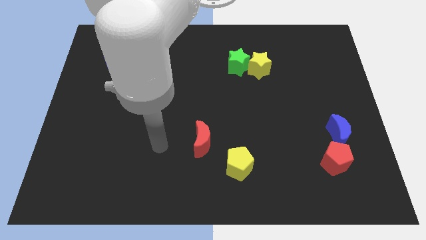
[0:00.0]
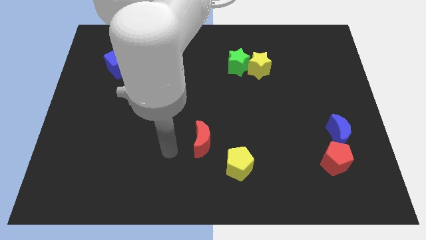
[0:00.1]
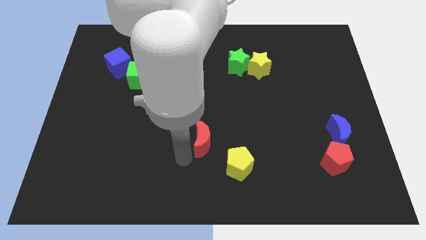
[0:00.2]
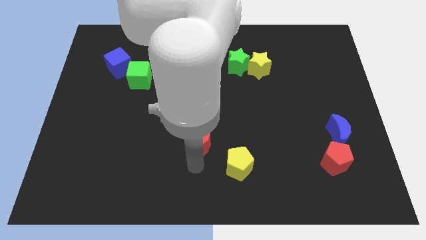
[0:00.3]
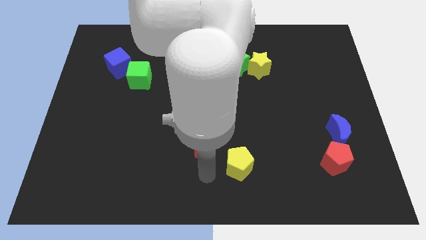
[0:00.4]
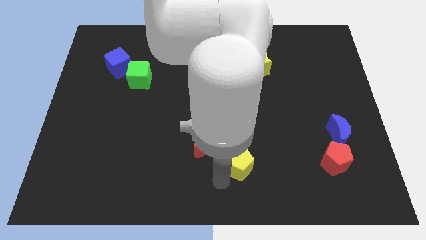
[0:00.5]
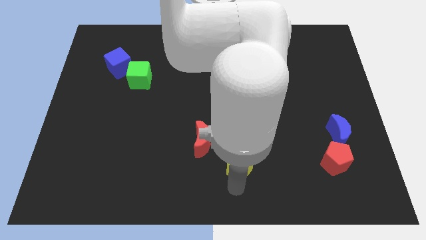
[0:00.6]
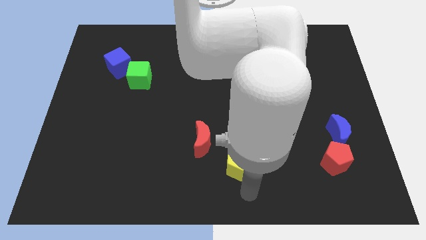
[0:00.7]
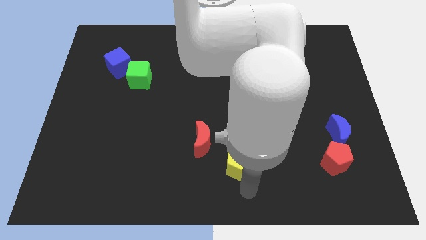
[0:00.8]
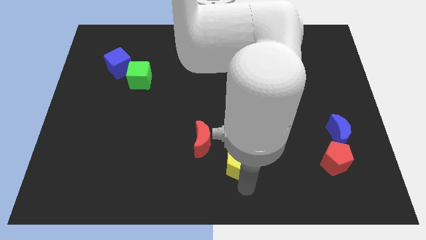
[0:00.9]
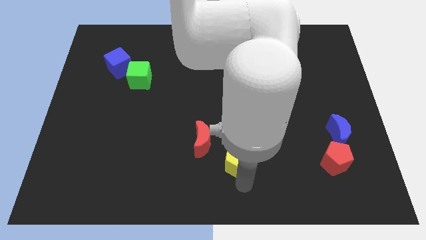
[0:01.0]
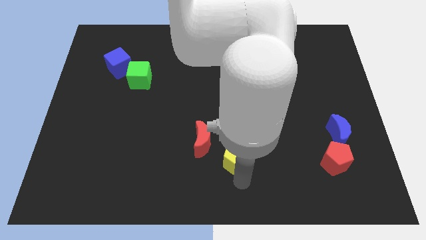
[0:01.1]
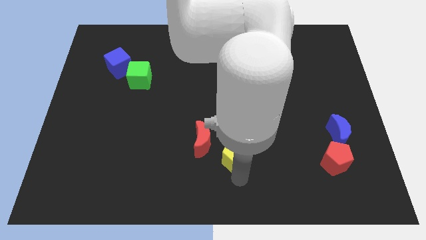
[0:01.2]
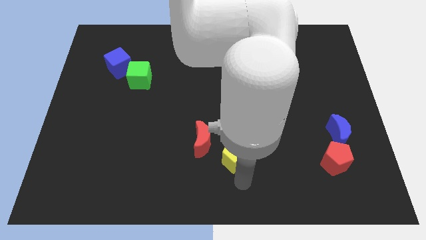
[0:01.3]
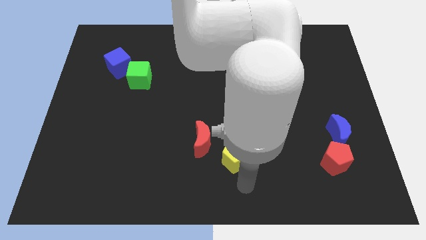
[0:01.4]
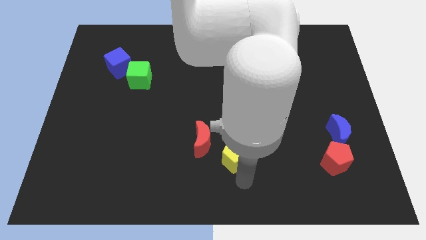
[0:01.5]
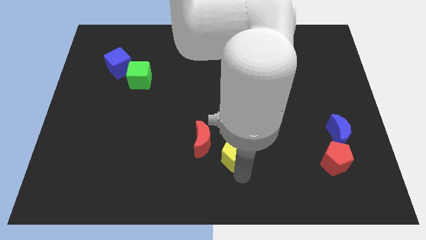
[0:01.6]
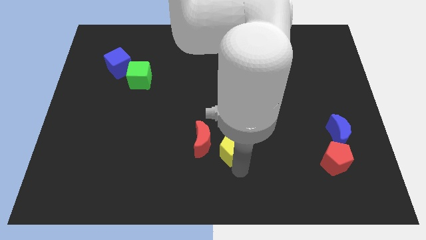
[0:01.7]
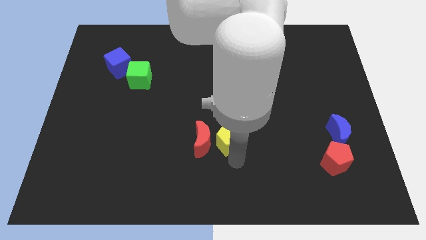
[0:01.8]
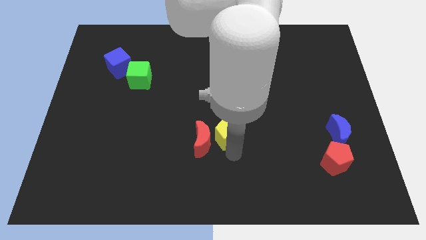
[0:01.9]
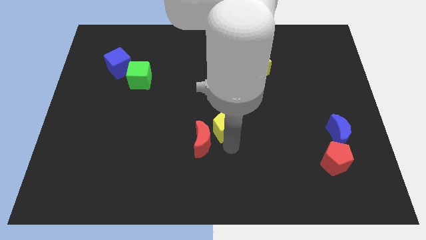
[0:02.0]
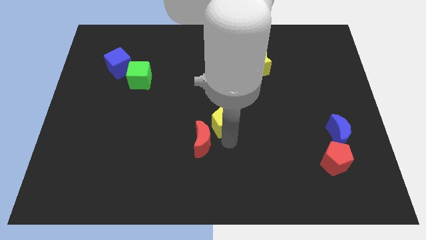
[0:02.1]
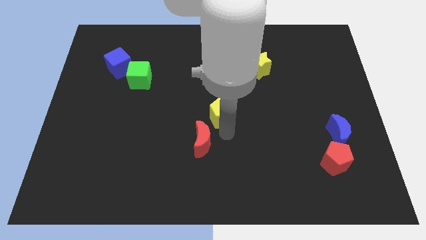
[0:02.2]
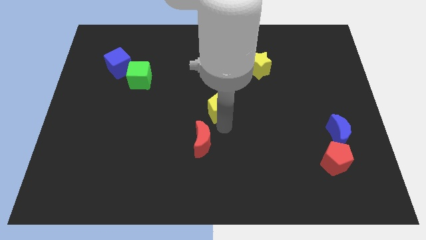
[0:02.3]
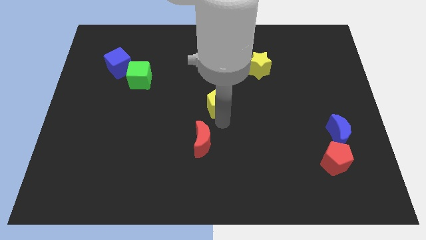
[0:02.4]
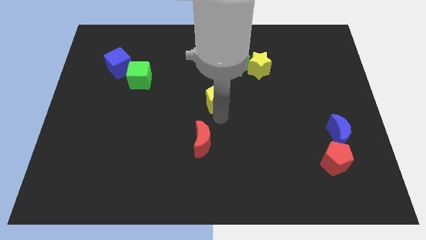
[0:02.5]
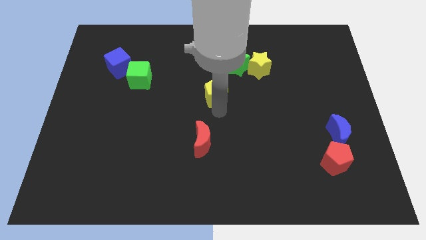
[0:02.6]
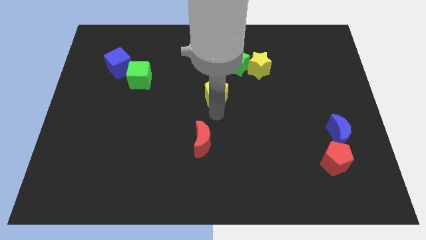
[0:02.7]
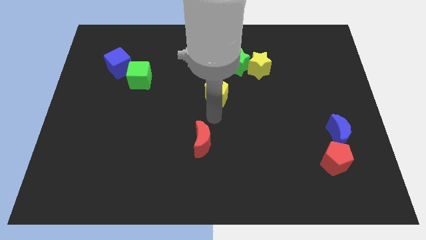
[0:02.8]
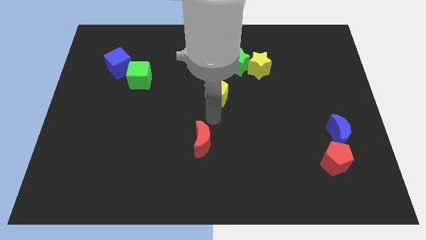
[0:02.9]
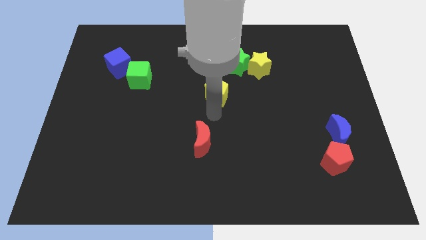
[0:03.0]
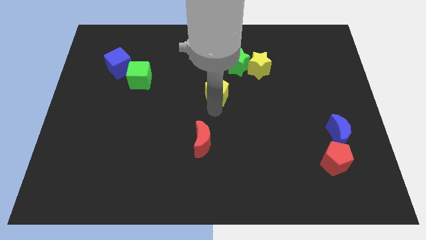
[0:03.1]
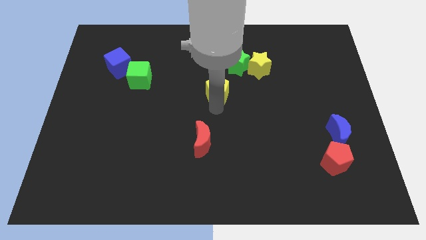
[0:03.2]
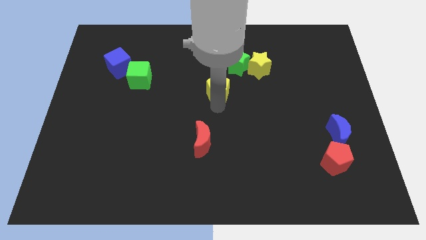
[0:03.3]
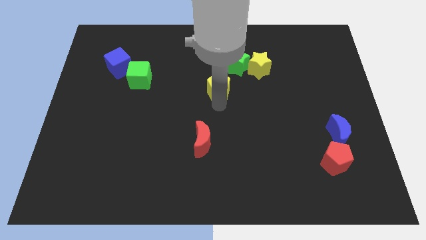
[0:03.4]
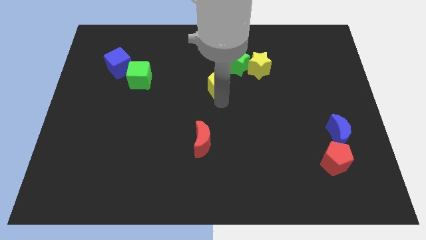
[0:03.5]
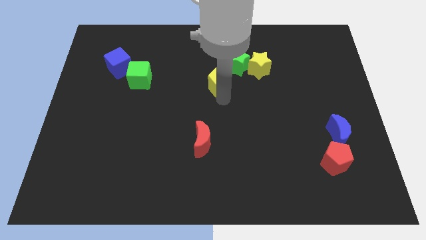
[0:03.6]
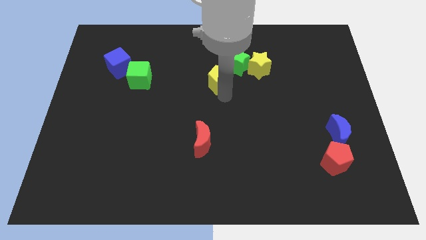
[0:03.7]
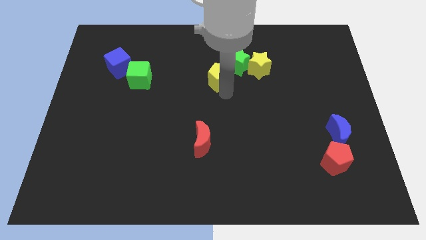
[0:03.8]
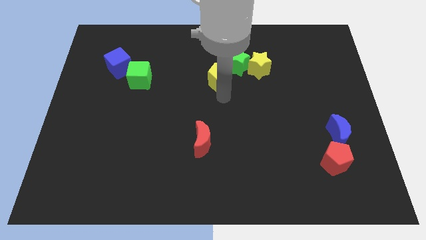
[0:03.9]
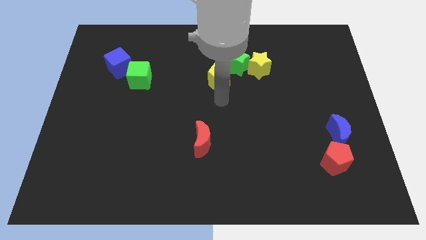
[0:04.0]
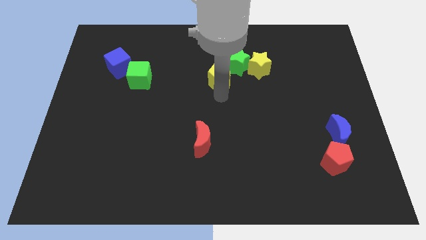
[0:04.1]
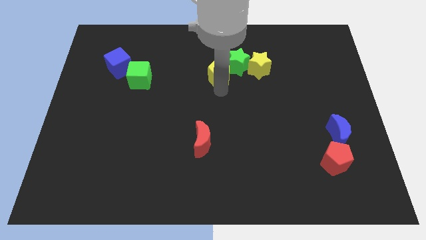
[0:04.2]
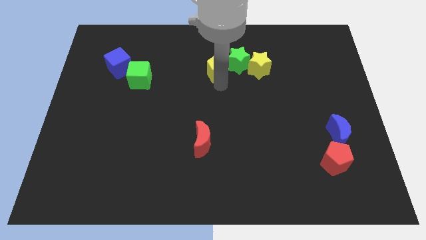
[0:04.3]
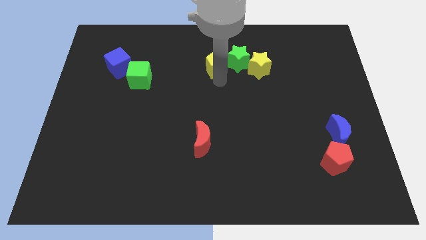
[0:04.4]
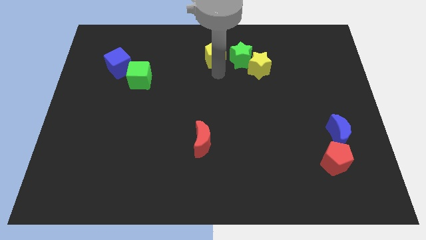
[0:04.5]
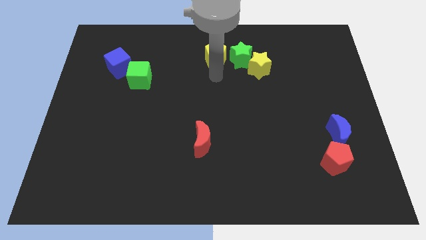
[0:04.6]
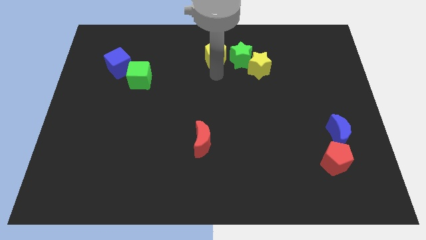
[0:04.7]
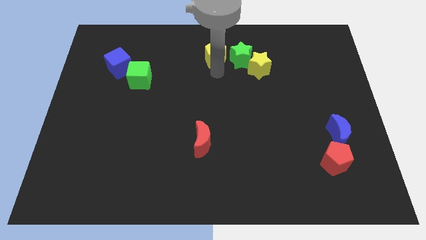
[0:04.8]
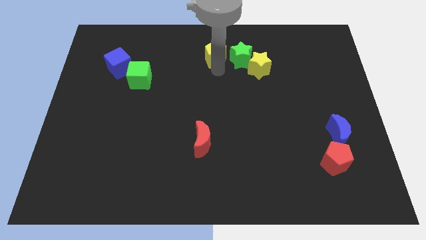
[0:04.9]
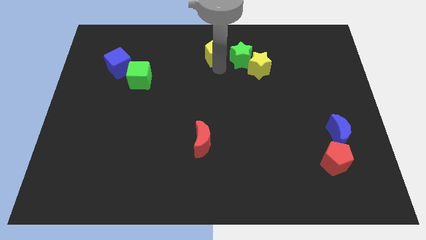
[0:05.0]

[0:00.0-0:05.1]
move the yellow pentagon to the towards your base

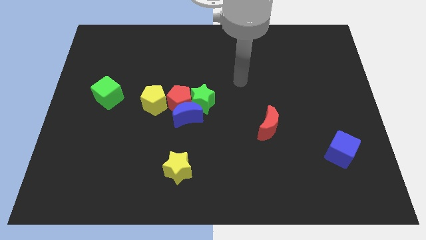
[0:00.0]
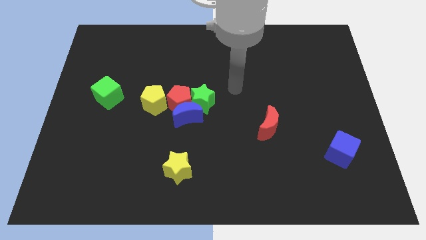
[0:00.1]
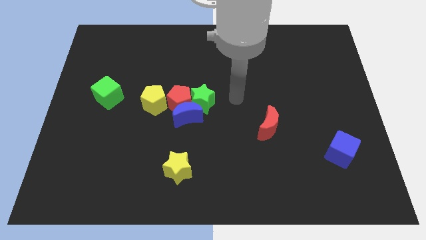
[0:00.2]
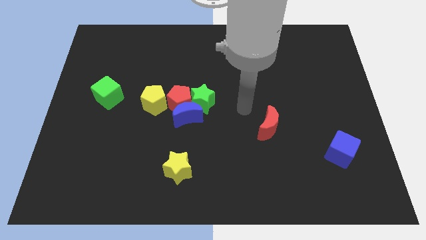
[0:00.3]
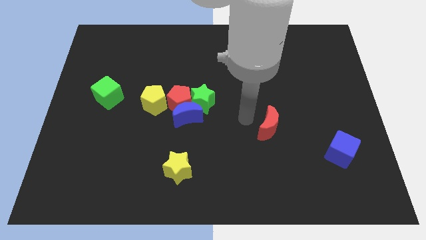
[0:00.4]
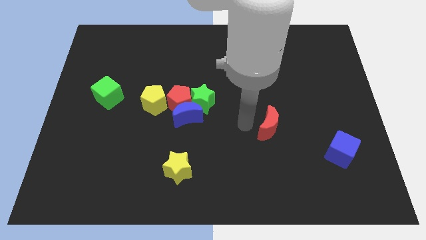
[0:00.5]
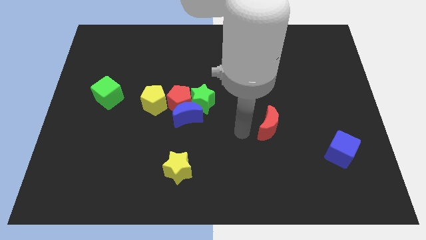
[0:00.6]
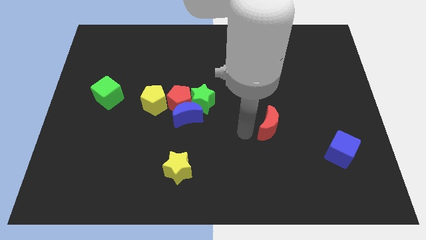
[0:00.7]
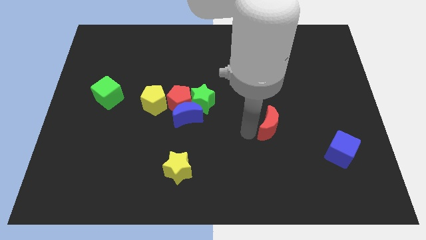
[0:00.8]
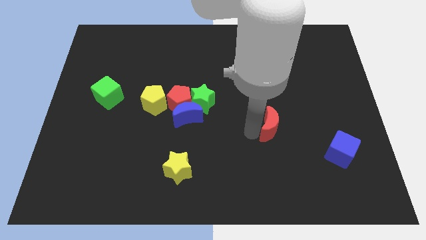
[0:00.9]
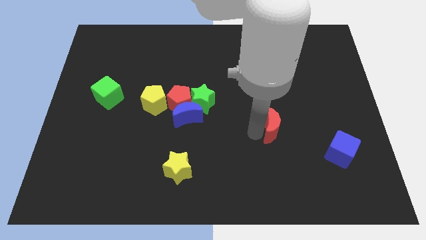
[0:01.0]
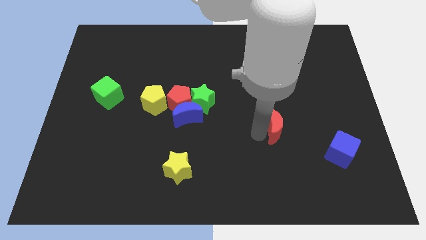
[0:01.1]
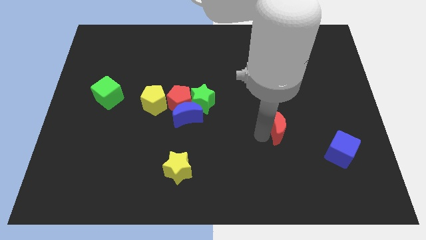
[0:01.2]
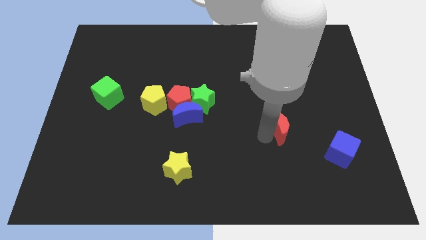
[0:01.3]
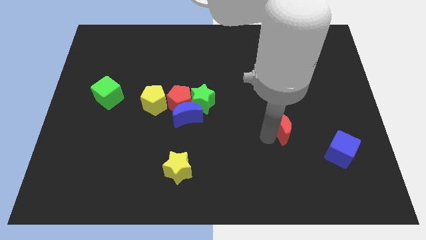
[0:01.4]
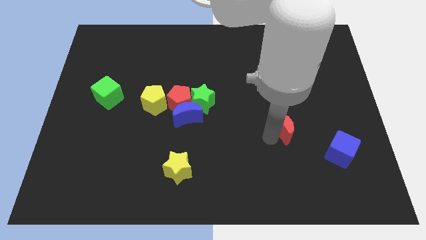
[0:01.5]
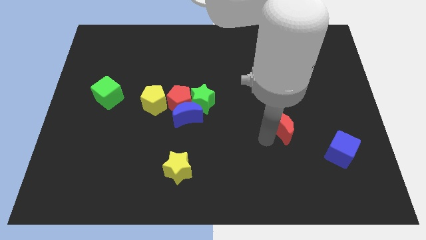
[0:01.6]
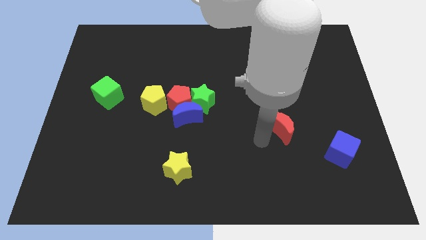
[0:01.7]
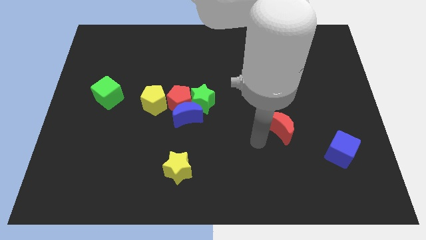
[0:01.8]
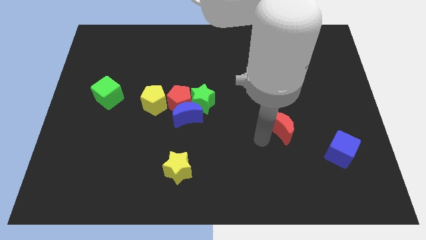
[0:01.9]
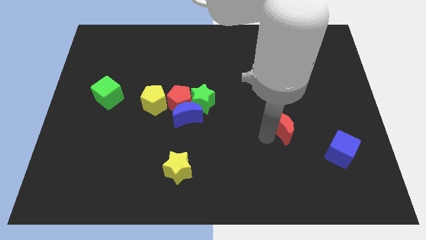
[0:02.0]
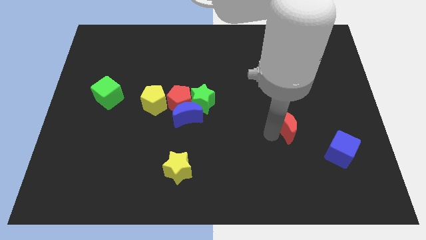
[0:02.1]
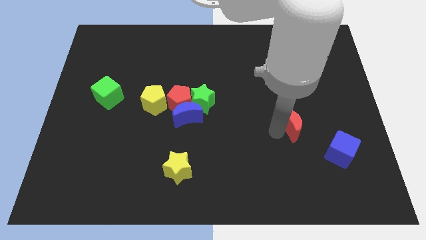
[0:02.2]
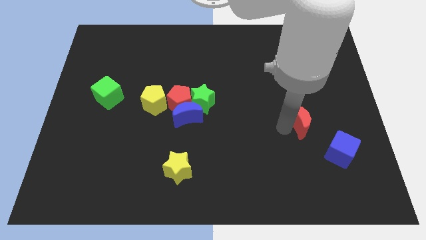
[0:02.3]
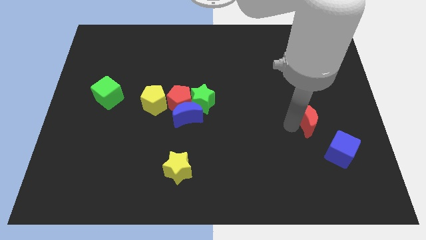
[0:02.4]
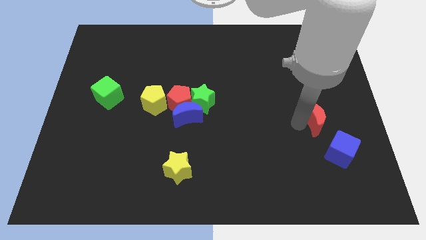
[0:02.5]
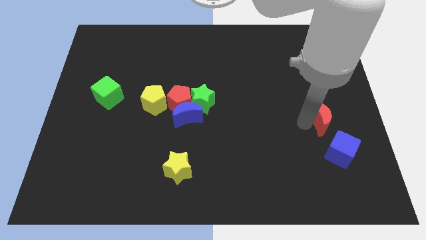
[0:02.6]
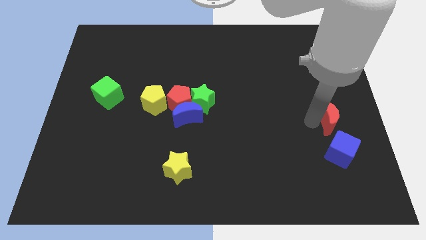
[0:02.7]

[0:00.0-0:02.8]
move the red moon to the center right
